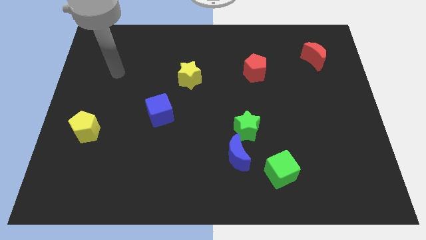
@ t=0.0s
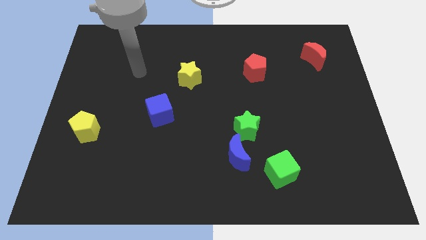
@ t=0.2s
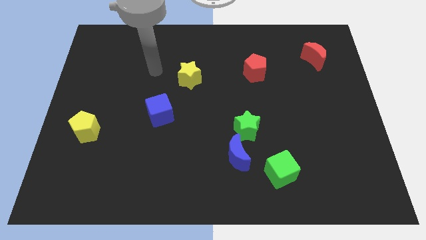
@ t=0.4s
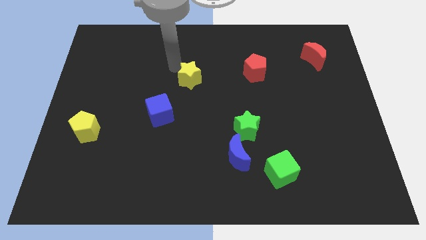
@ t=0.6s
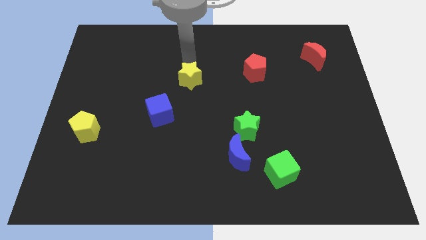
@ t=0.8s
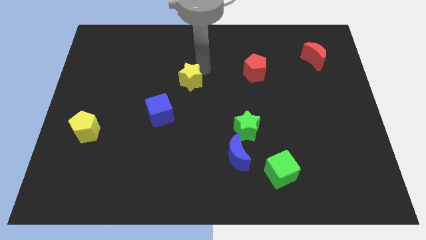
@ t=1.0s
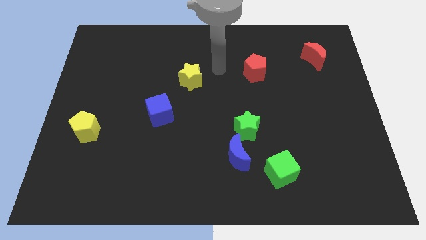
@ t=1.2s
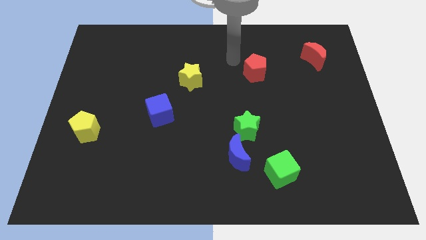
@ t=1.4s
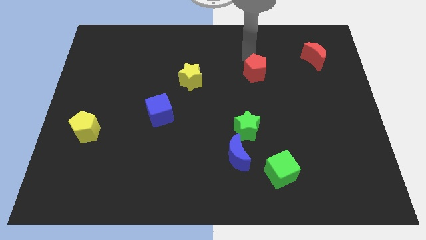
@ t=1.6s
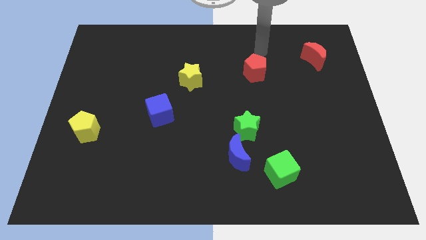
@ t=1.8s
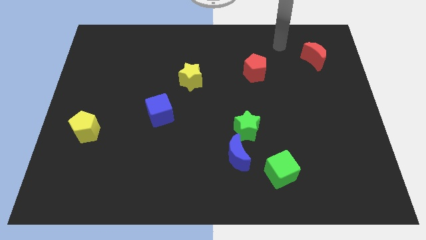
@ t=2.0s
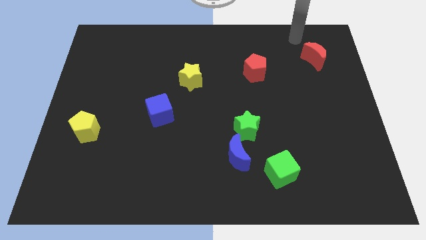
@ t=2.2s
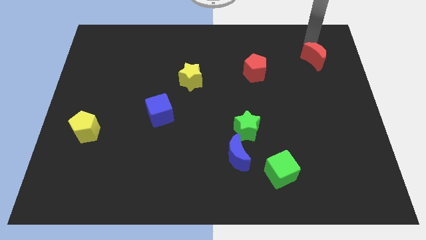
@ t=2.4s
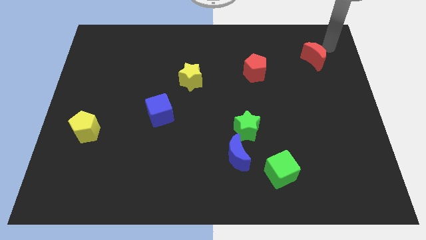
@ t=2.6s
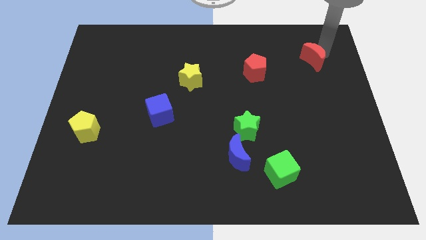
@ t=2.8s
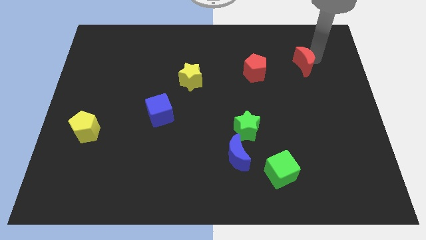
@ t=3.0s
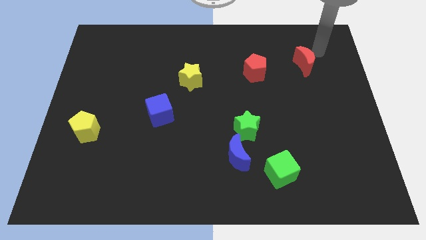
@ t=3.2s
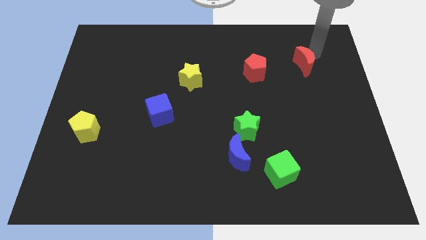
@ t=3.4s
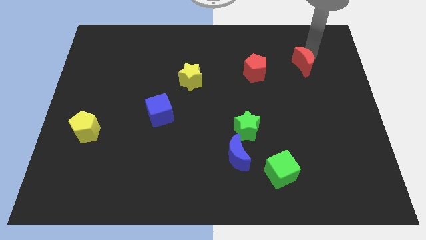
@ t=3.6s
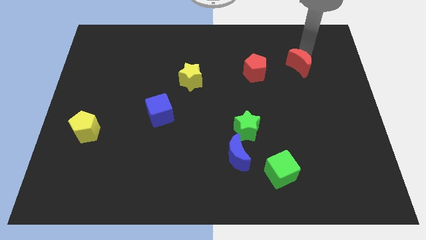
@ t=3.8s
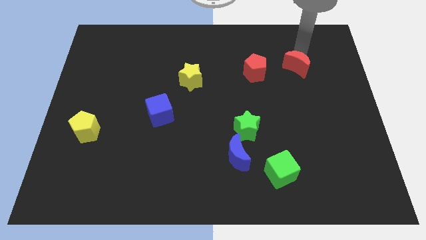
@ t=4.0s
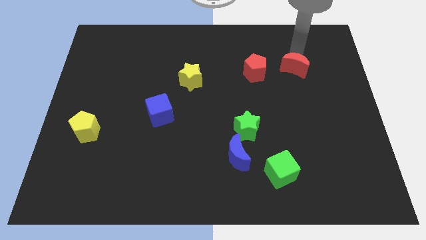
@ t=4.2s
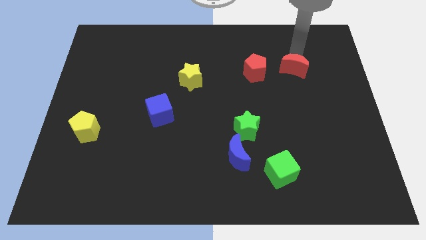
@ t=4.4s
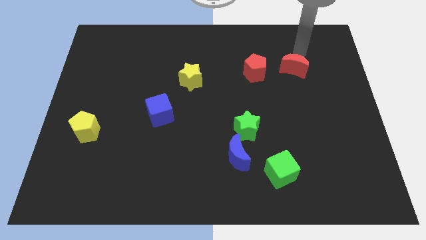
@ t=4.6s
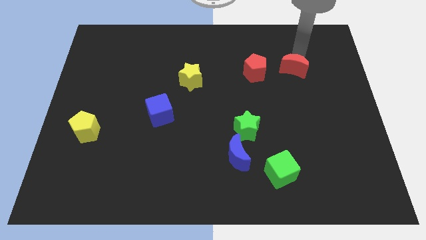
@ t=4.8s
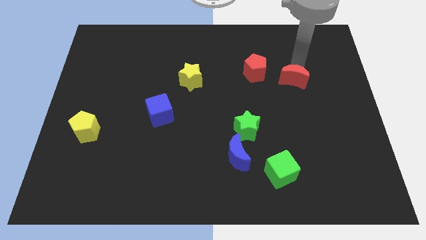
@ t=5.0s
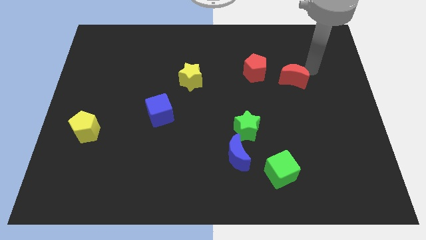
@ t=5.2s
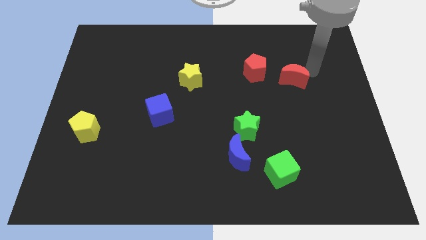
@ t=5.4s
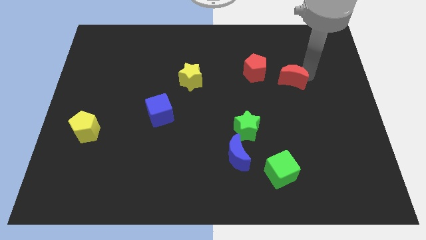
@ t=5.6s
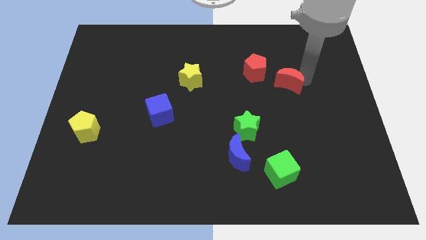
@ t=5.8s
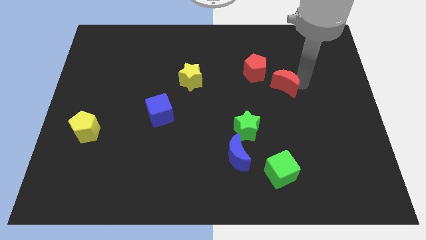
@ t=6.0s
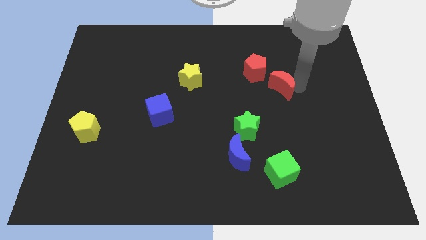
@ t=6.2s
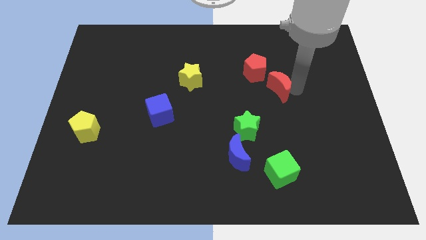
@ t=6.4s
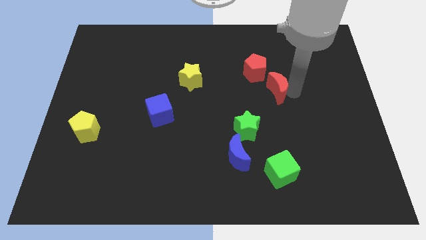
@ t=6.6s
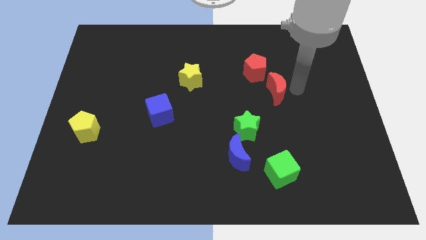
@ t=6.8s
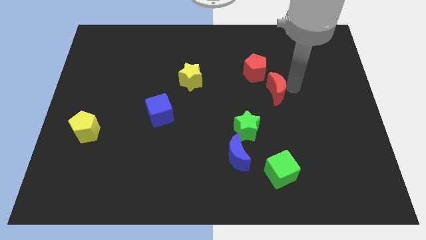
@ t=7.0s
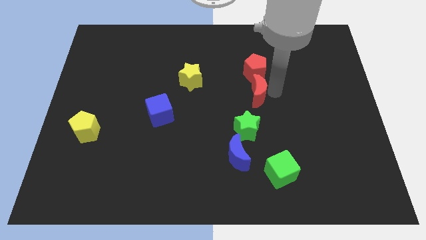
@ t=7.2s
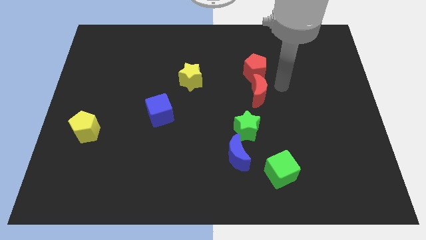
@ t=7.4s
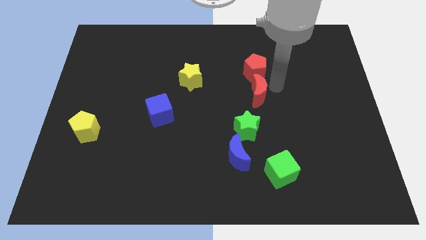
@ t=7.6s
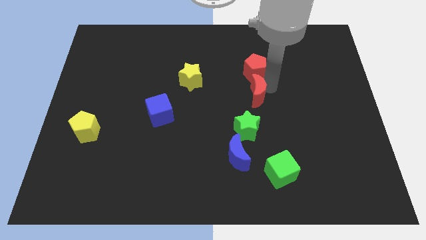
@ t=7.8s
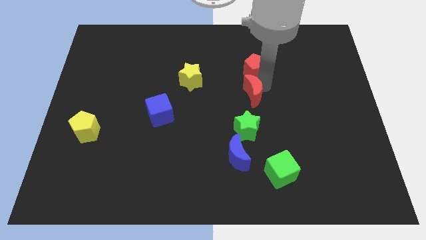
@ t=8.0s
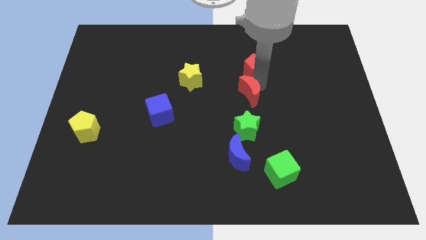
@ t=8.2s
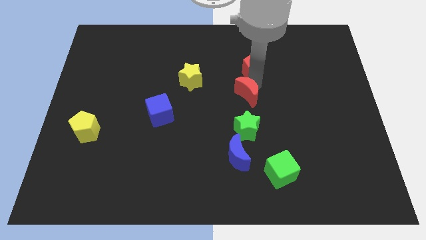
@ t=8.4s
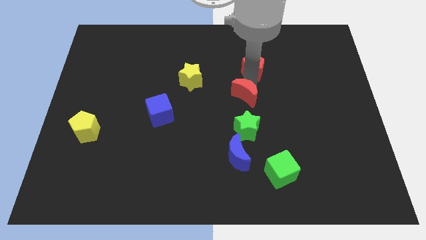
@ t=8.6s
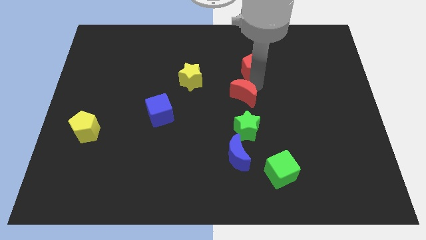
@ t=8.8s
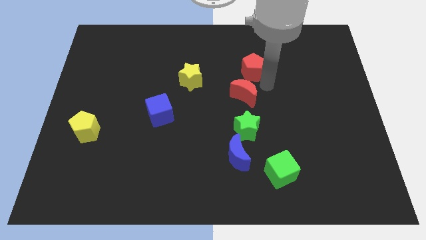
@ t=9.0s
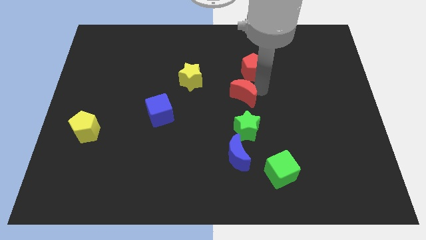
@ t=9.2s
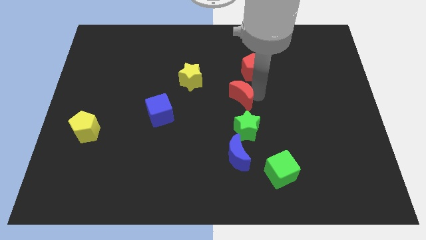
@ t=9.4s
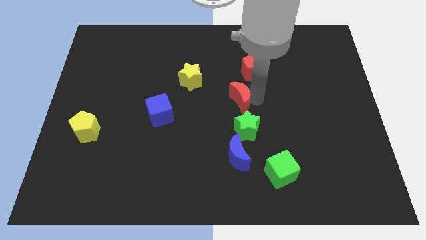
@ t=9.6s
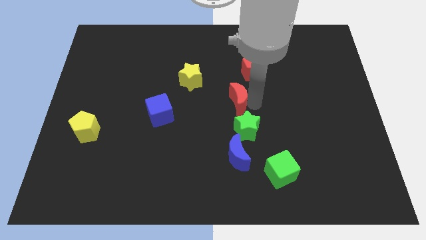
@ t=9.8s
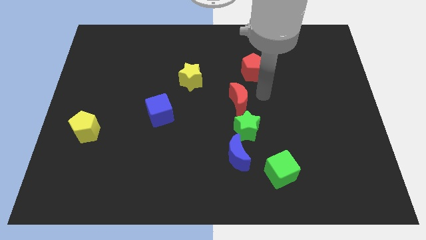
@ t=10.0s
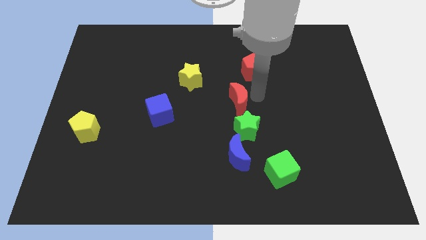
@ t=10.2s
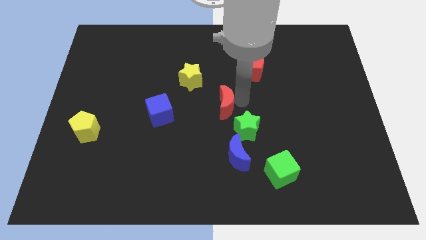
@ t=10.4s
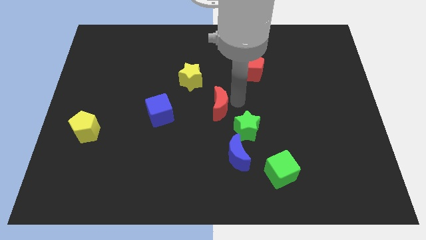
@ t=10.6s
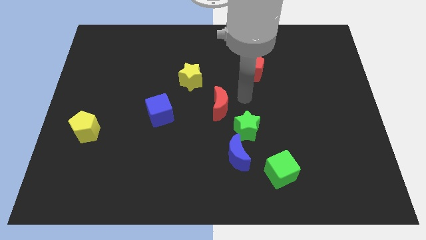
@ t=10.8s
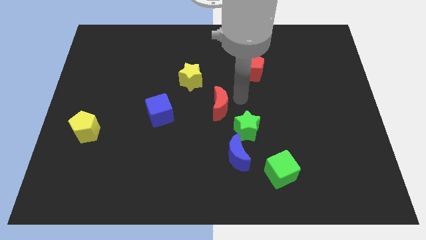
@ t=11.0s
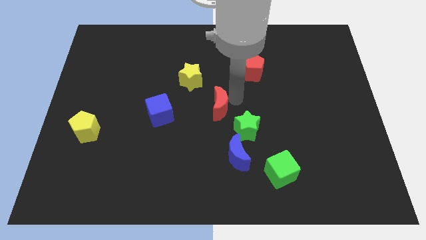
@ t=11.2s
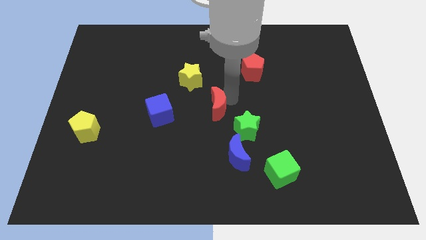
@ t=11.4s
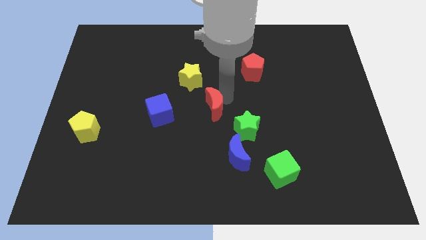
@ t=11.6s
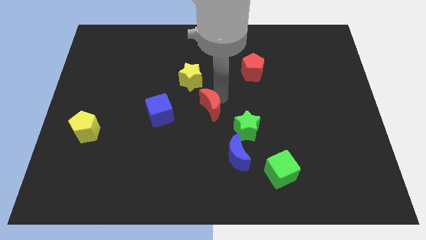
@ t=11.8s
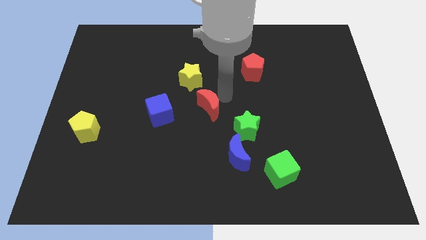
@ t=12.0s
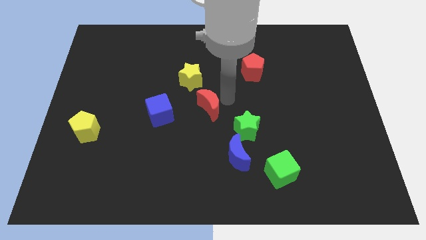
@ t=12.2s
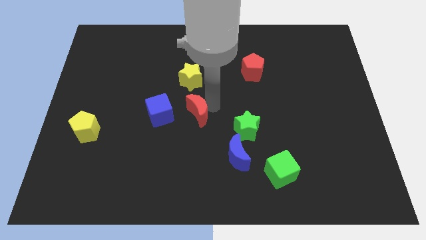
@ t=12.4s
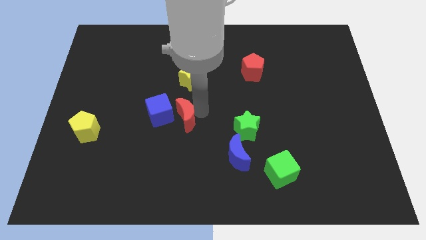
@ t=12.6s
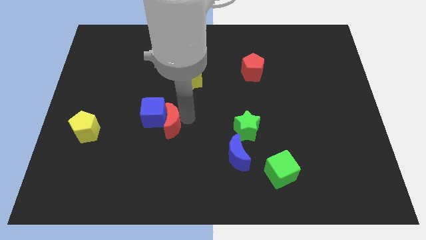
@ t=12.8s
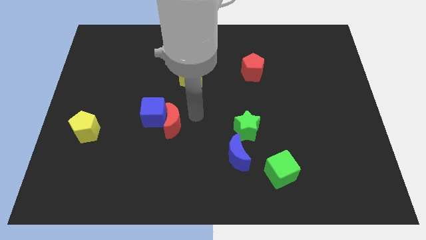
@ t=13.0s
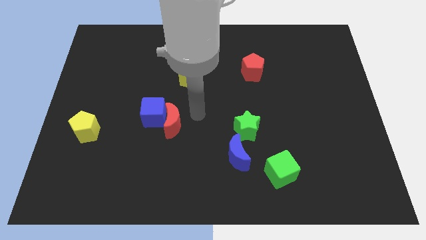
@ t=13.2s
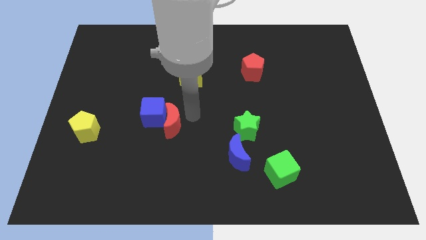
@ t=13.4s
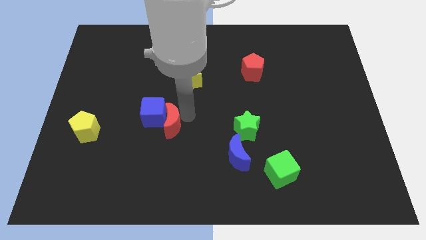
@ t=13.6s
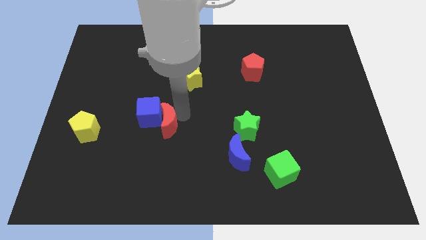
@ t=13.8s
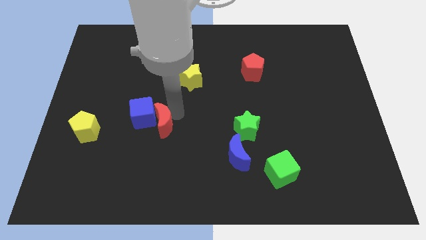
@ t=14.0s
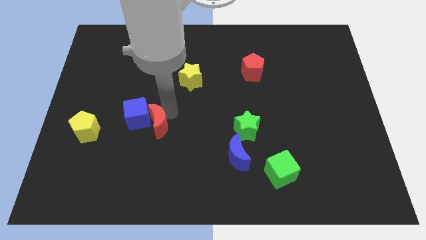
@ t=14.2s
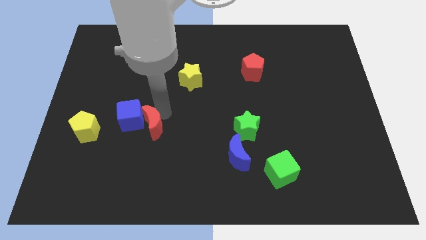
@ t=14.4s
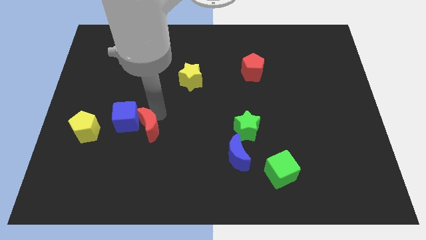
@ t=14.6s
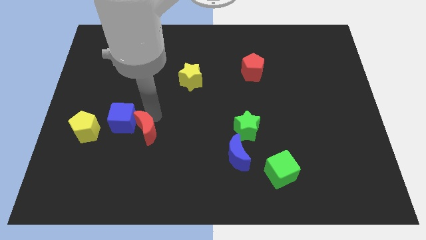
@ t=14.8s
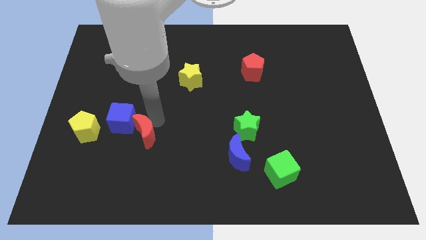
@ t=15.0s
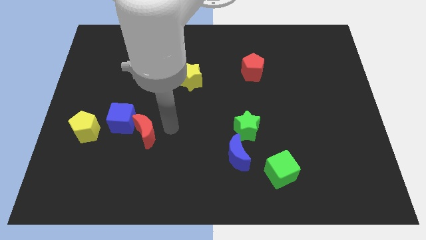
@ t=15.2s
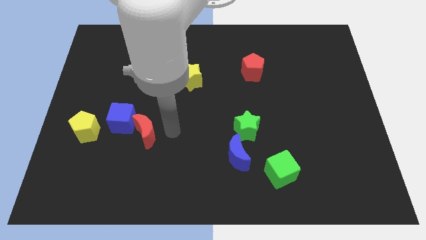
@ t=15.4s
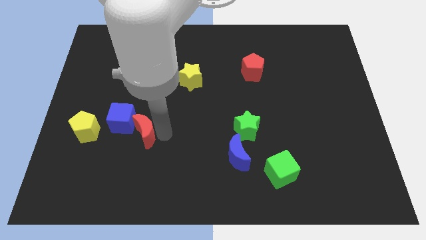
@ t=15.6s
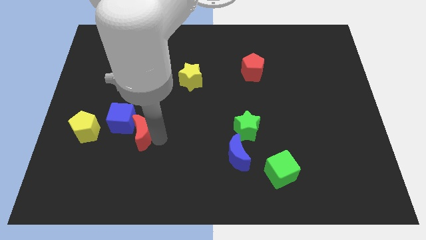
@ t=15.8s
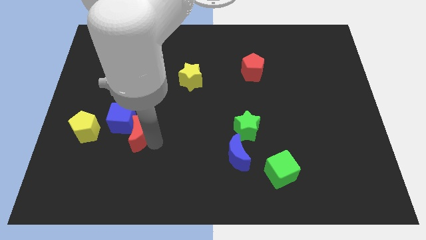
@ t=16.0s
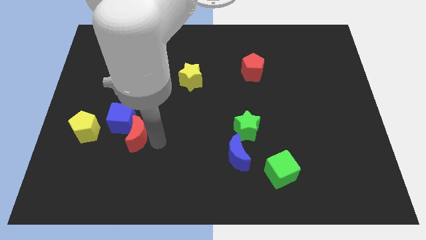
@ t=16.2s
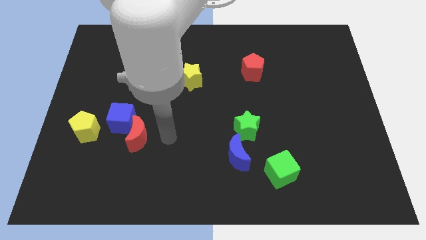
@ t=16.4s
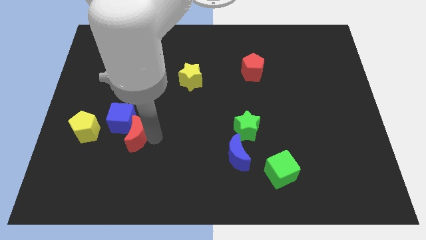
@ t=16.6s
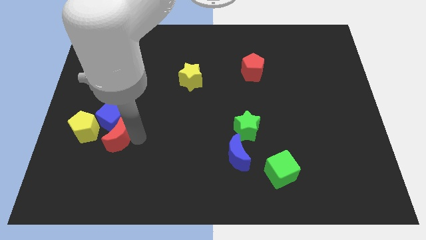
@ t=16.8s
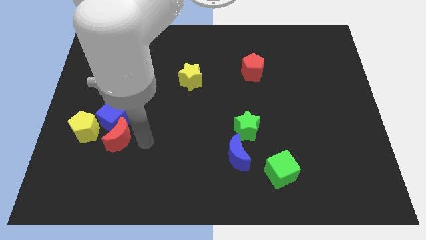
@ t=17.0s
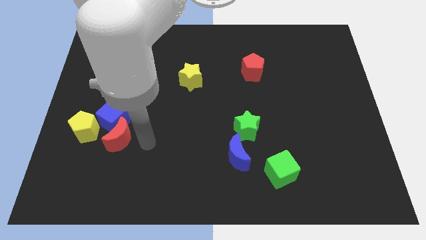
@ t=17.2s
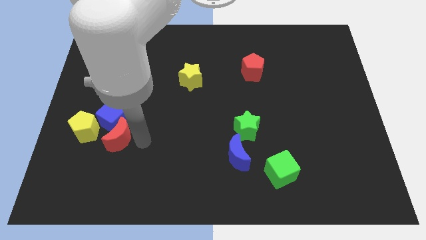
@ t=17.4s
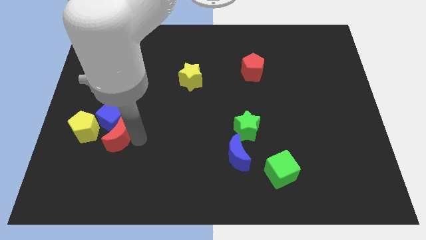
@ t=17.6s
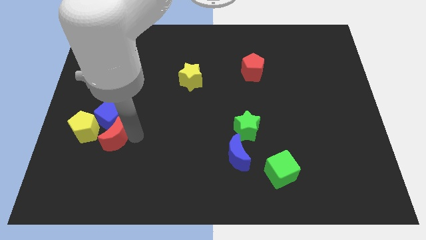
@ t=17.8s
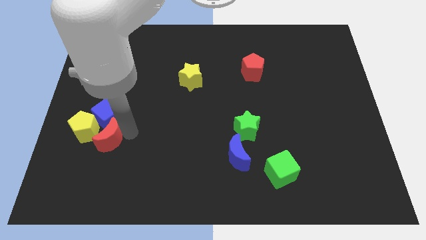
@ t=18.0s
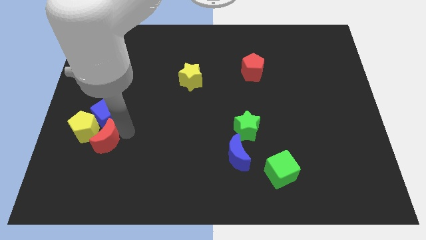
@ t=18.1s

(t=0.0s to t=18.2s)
slide the red moon next to the yellow pentagon
